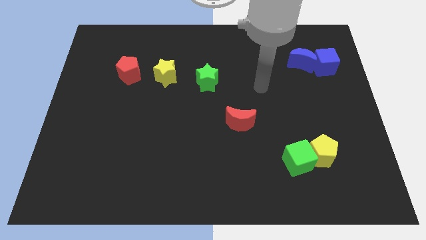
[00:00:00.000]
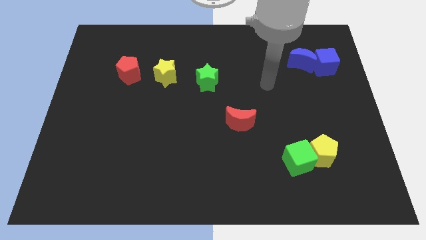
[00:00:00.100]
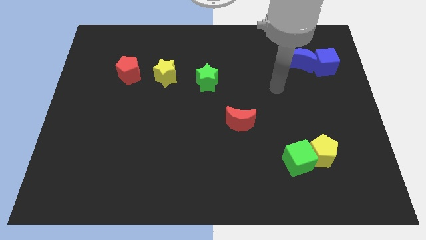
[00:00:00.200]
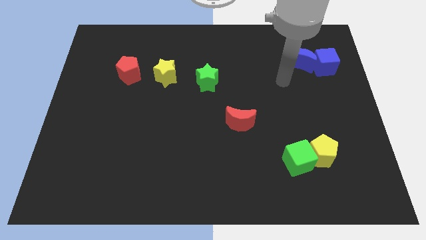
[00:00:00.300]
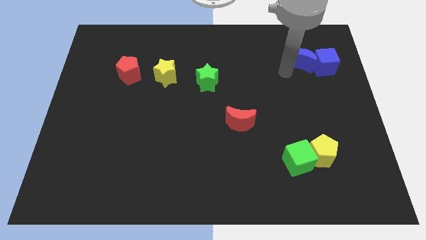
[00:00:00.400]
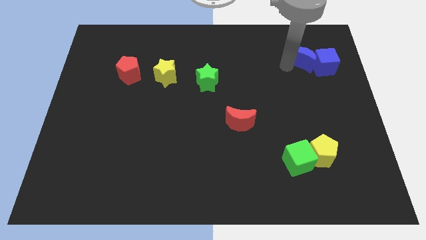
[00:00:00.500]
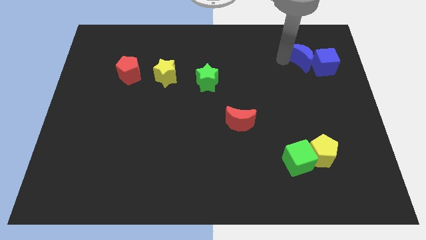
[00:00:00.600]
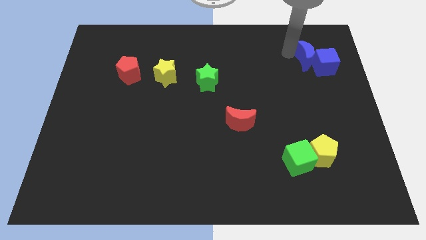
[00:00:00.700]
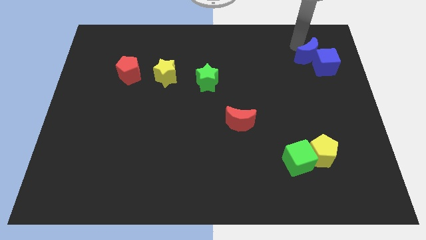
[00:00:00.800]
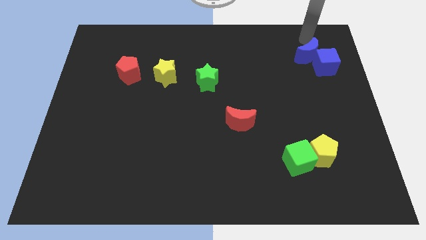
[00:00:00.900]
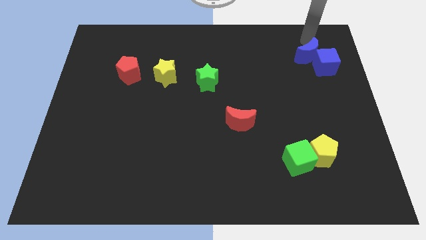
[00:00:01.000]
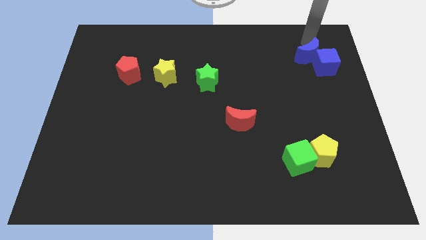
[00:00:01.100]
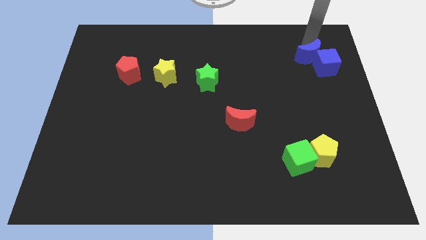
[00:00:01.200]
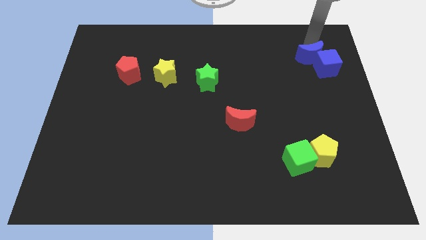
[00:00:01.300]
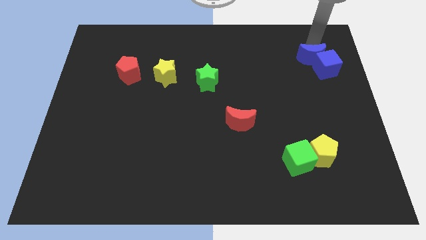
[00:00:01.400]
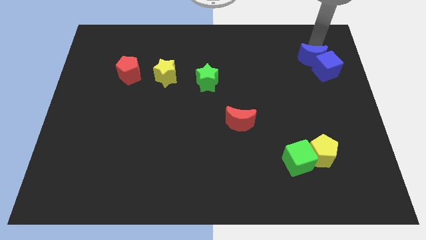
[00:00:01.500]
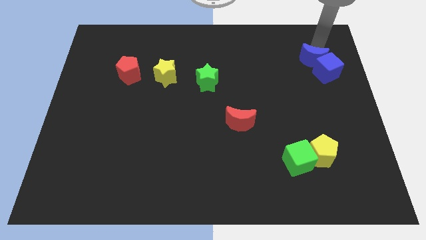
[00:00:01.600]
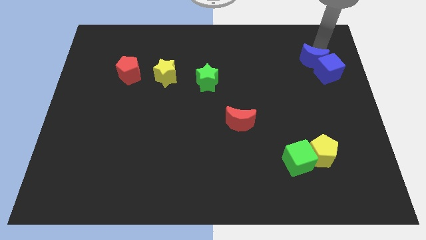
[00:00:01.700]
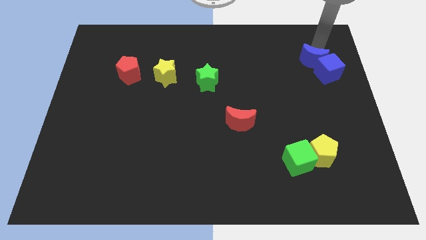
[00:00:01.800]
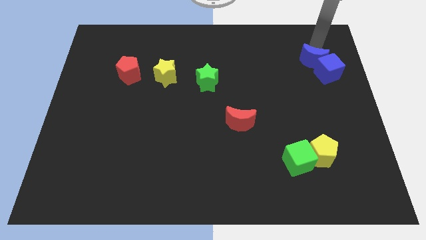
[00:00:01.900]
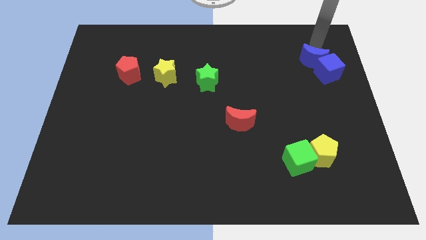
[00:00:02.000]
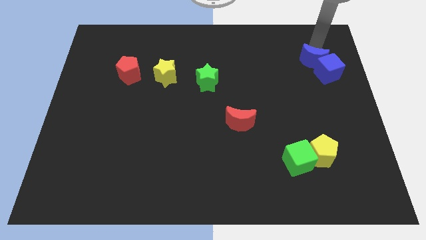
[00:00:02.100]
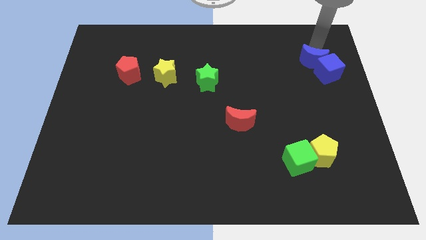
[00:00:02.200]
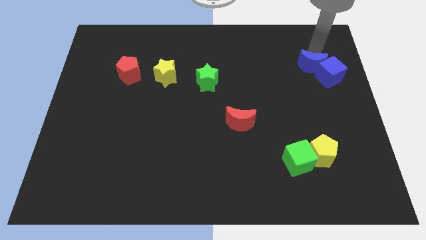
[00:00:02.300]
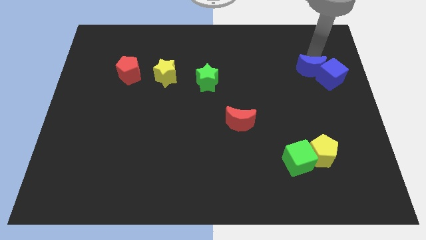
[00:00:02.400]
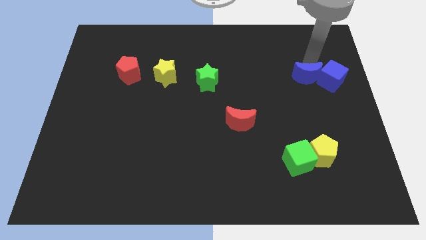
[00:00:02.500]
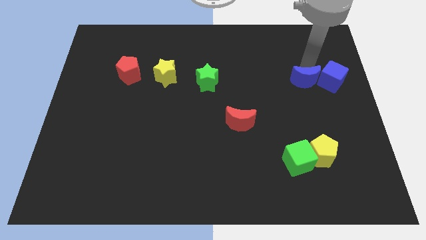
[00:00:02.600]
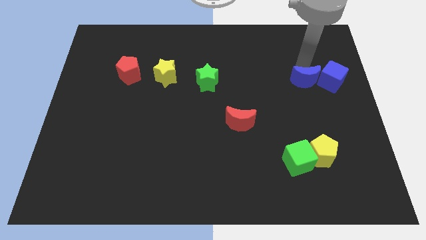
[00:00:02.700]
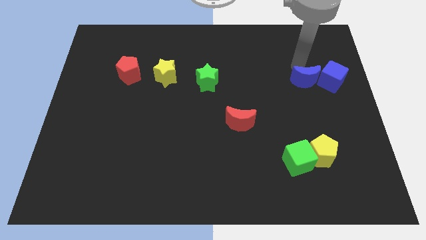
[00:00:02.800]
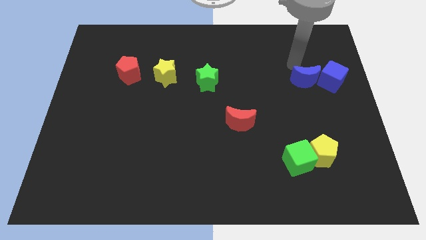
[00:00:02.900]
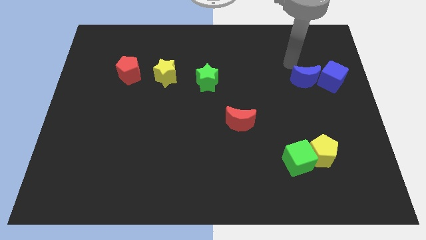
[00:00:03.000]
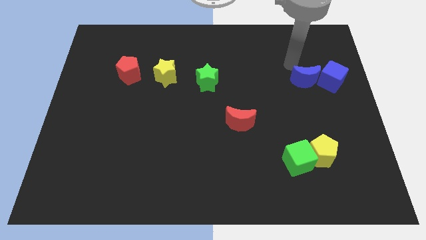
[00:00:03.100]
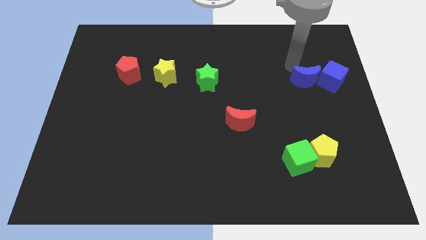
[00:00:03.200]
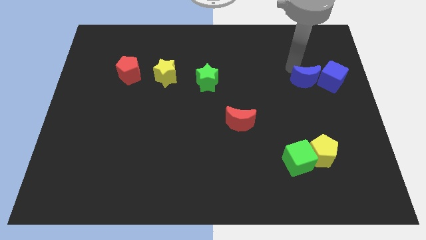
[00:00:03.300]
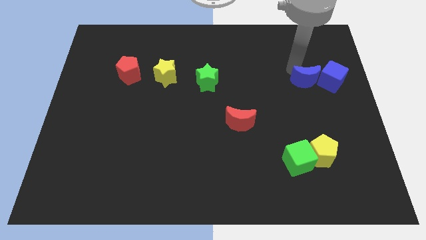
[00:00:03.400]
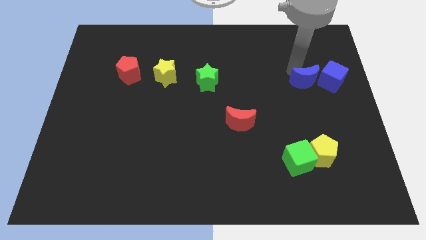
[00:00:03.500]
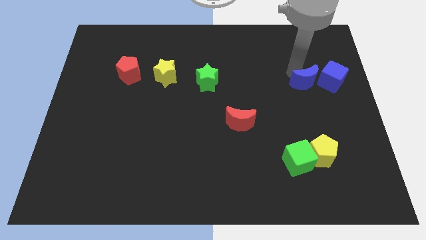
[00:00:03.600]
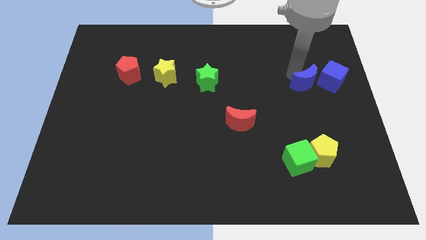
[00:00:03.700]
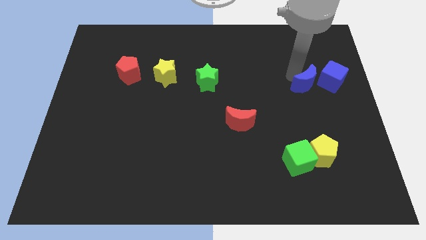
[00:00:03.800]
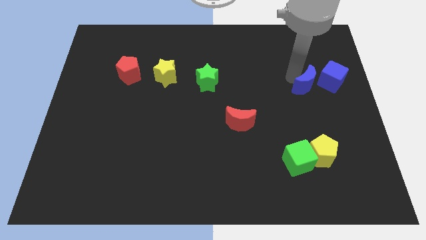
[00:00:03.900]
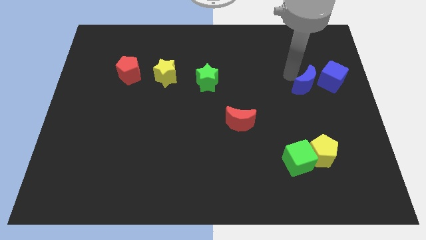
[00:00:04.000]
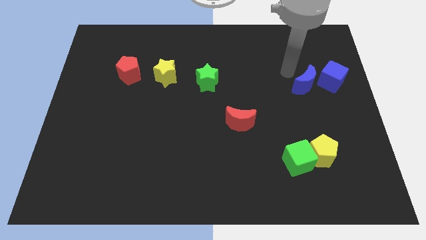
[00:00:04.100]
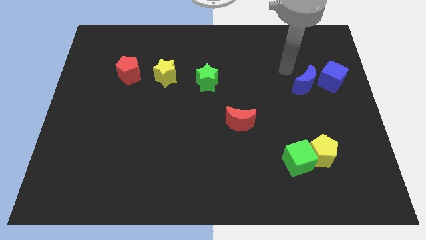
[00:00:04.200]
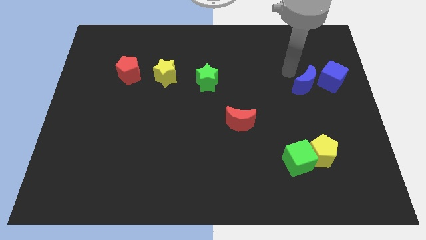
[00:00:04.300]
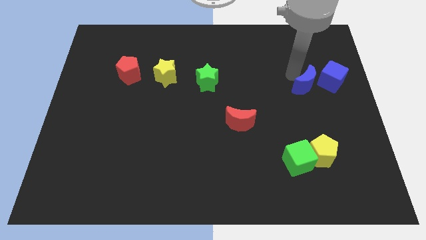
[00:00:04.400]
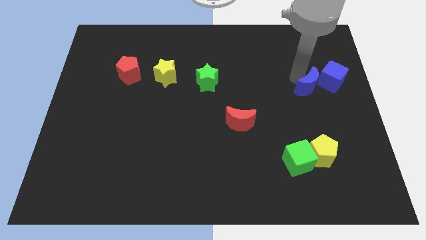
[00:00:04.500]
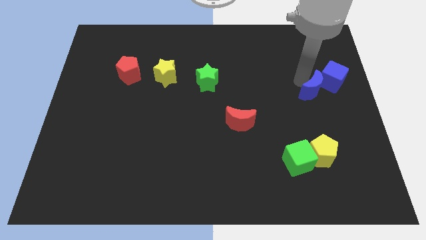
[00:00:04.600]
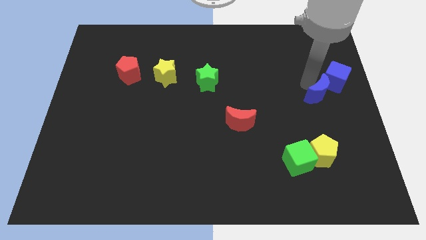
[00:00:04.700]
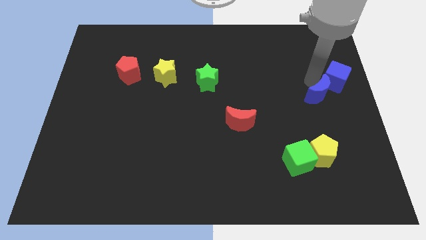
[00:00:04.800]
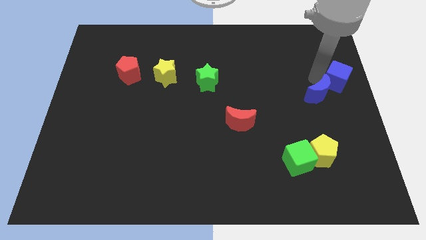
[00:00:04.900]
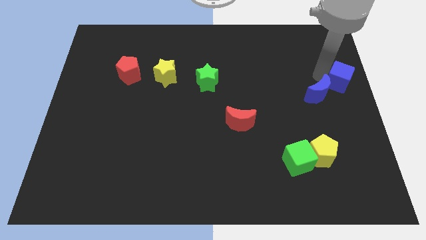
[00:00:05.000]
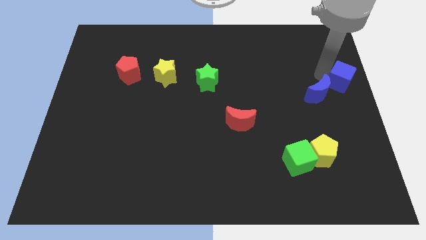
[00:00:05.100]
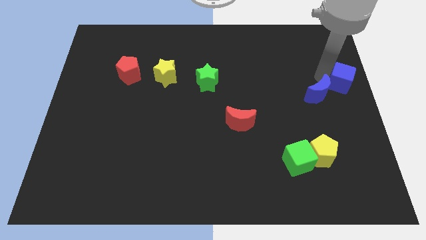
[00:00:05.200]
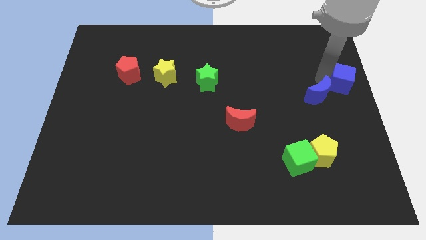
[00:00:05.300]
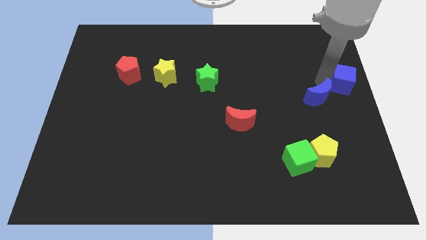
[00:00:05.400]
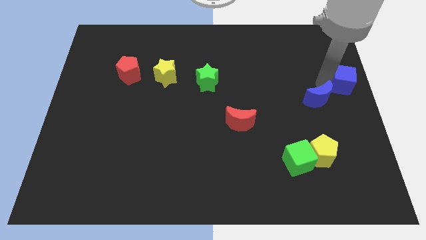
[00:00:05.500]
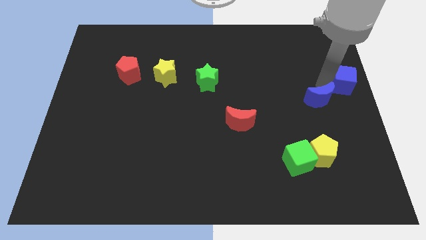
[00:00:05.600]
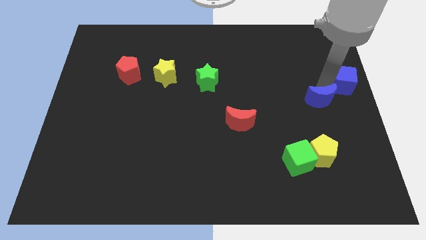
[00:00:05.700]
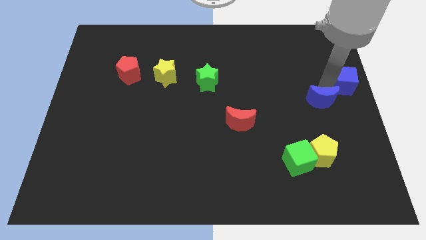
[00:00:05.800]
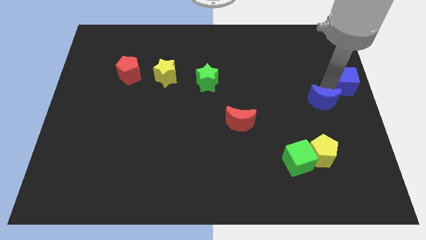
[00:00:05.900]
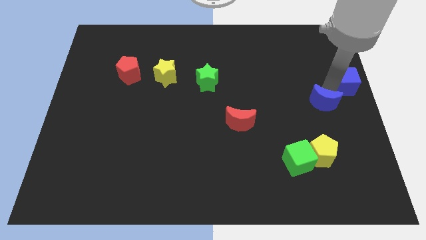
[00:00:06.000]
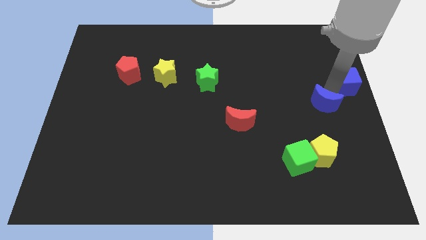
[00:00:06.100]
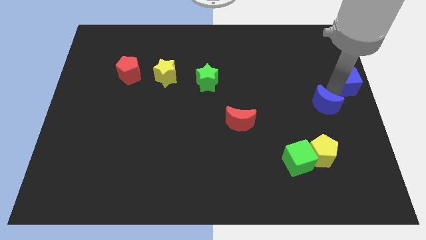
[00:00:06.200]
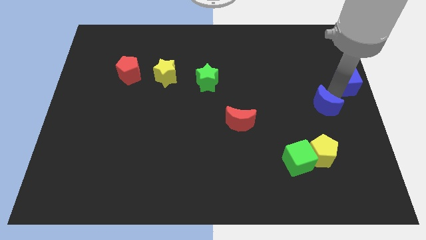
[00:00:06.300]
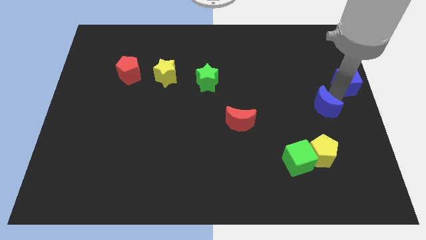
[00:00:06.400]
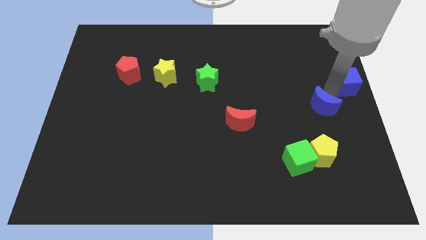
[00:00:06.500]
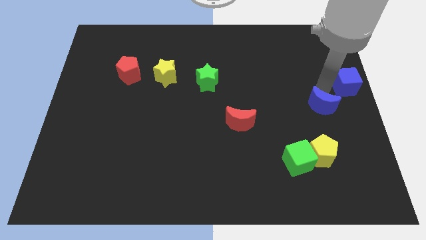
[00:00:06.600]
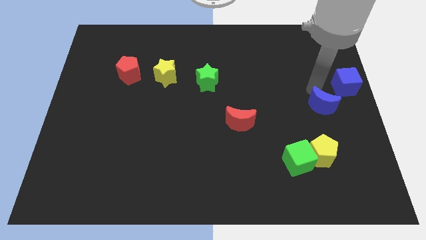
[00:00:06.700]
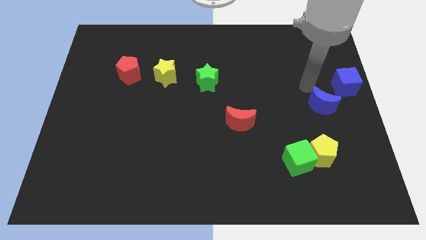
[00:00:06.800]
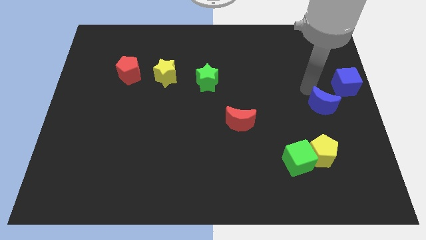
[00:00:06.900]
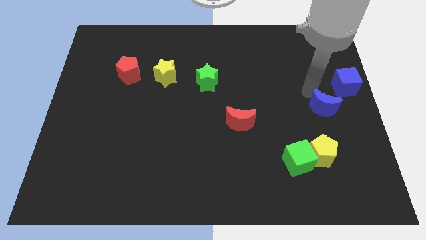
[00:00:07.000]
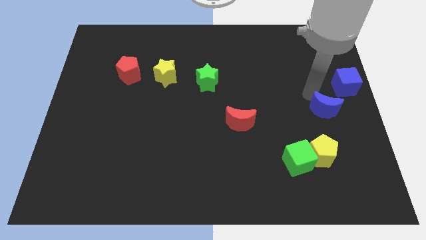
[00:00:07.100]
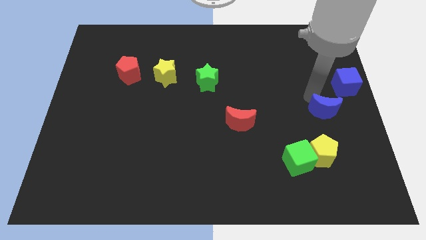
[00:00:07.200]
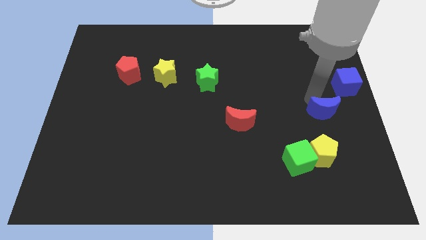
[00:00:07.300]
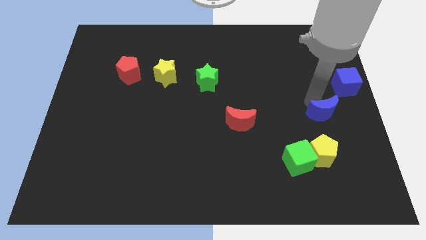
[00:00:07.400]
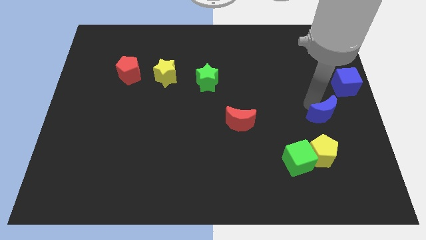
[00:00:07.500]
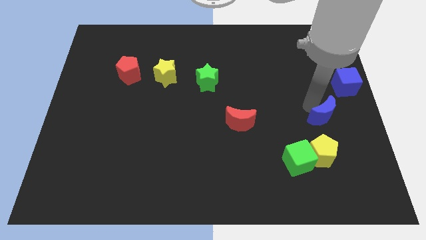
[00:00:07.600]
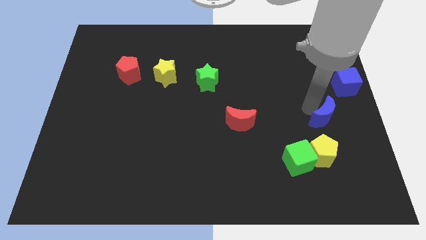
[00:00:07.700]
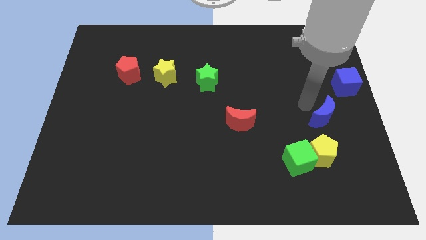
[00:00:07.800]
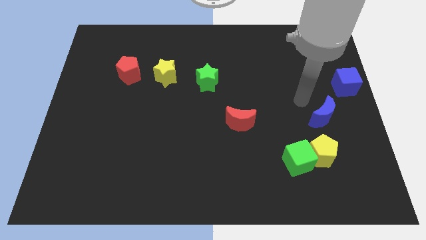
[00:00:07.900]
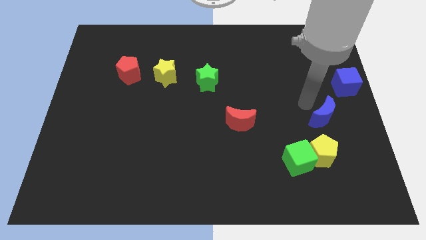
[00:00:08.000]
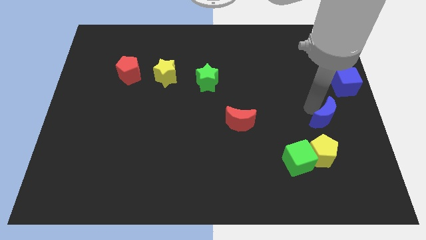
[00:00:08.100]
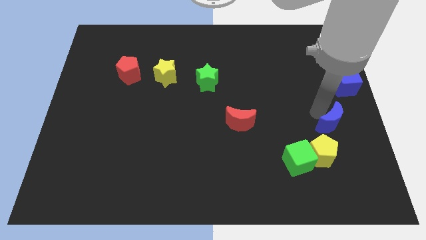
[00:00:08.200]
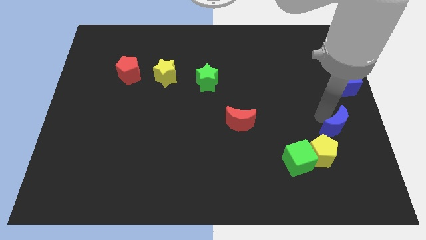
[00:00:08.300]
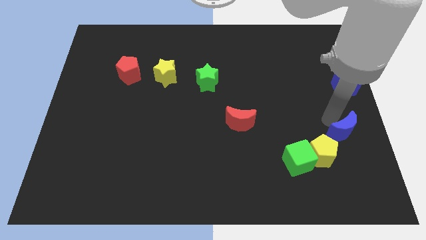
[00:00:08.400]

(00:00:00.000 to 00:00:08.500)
move the blue moon downwards
